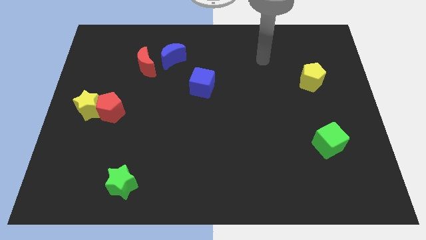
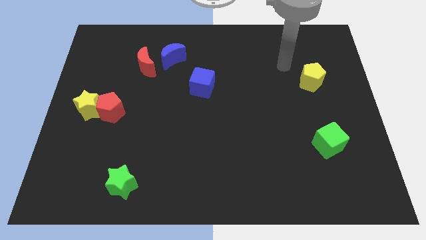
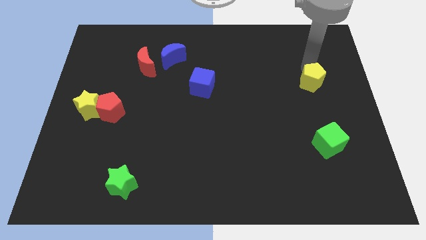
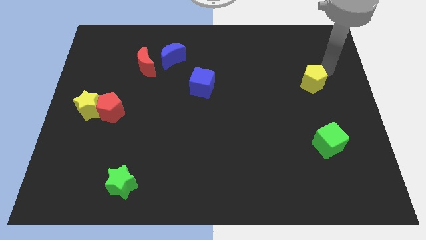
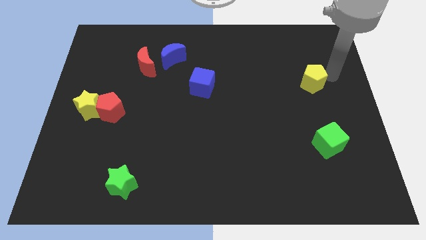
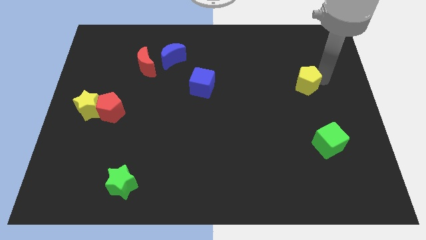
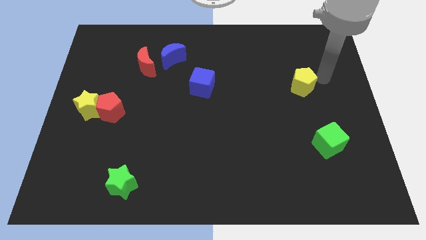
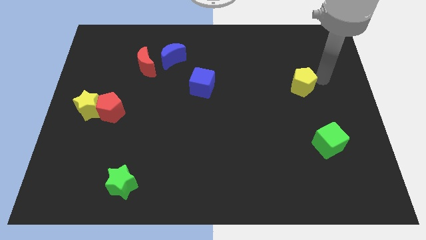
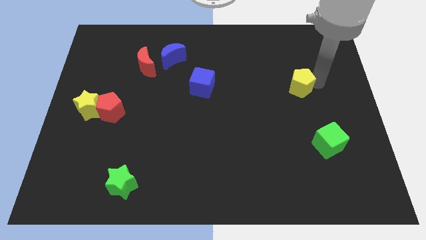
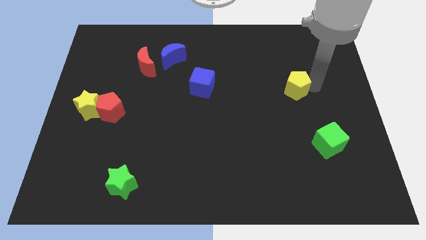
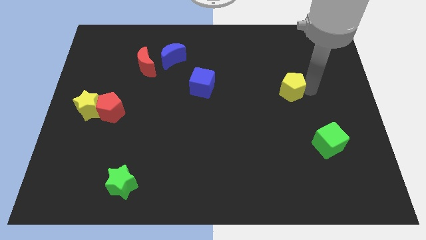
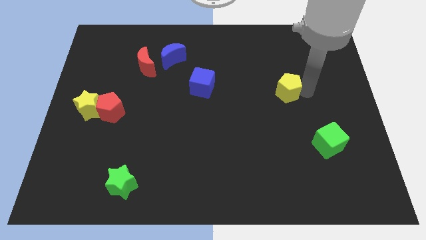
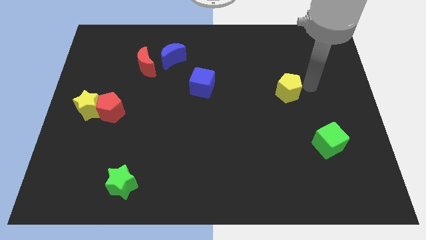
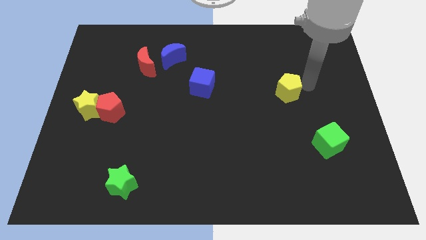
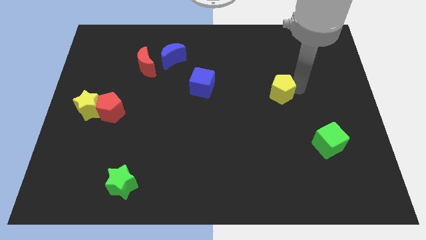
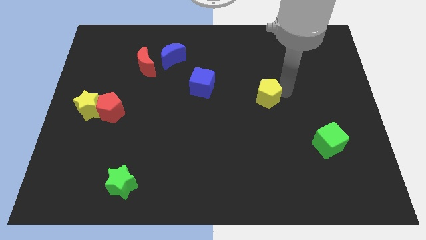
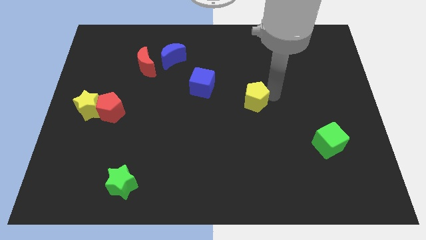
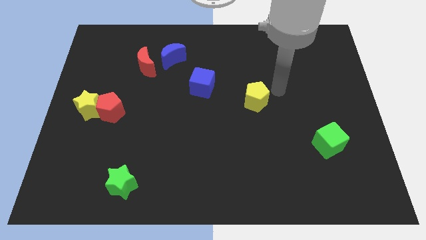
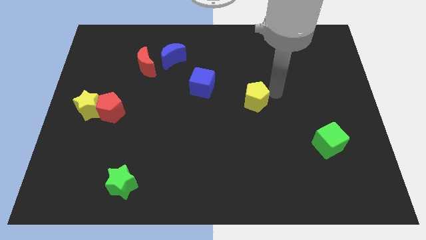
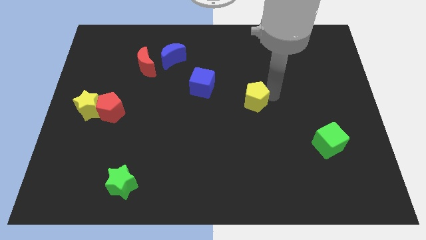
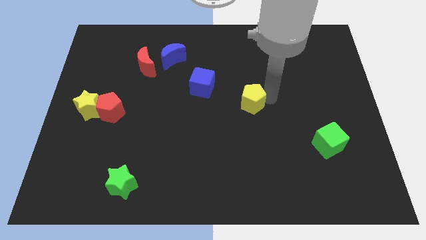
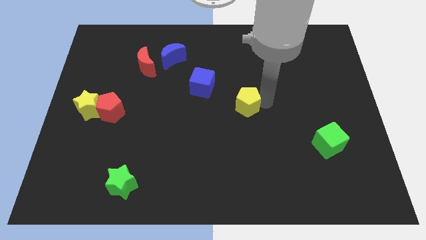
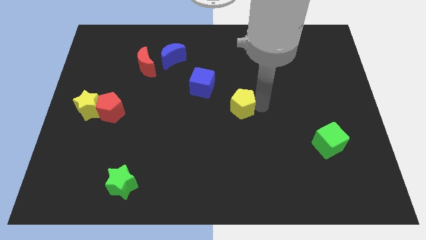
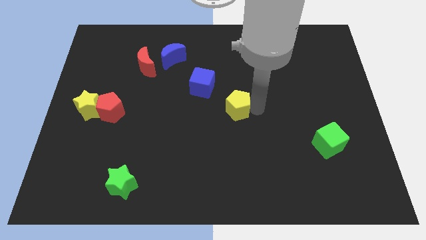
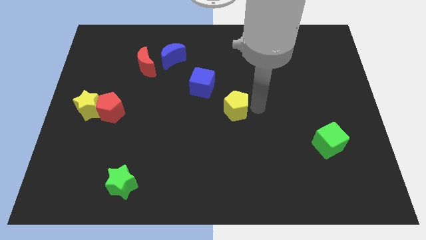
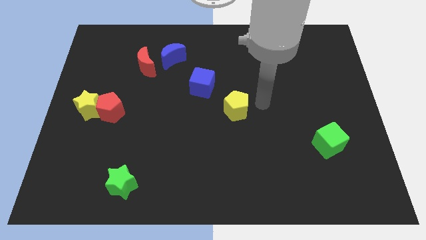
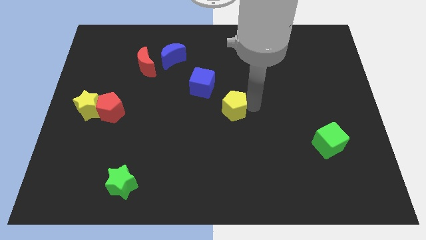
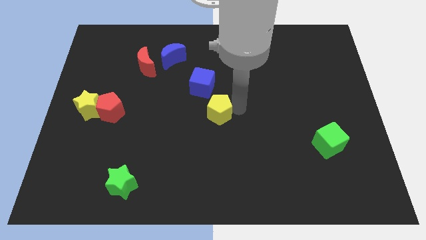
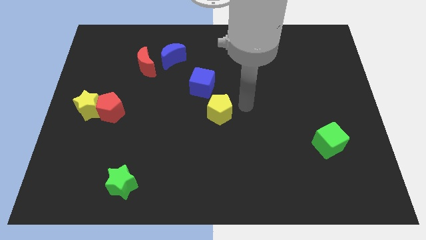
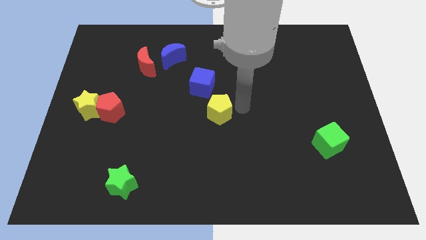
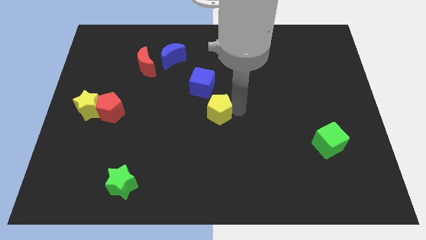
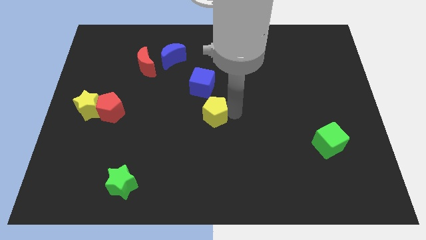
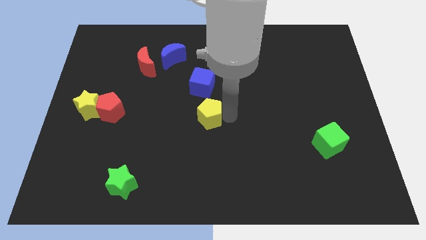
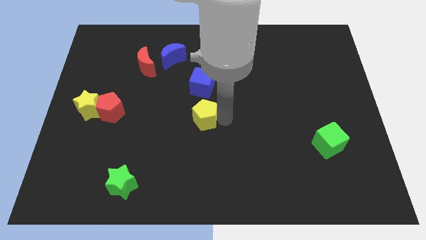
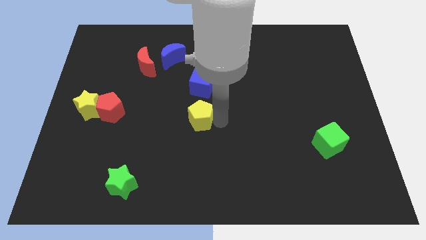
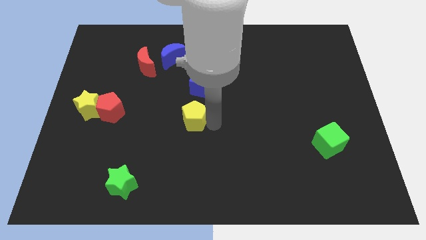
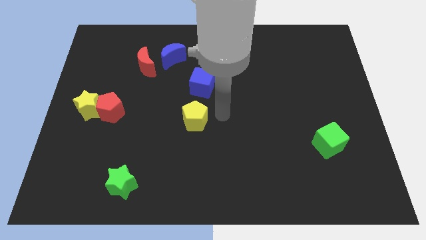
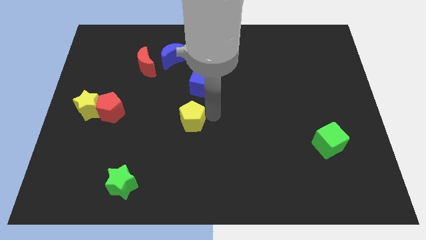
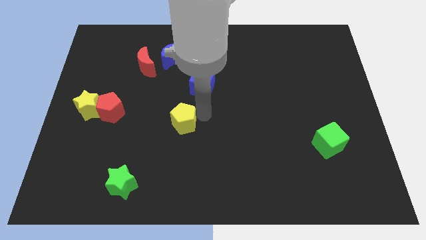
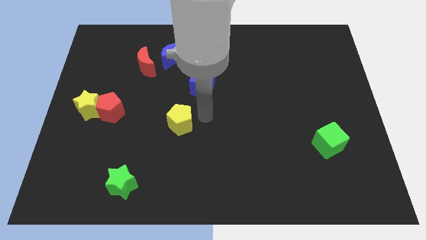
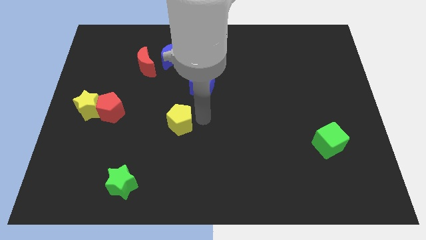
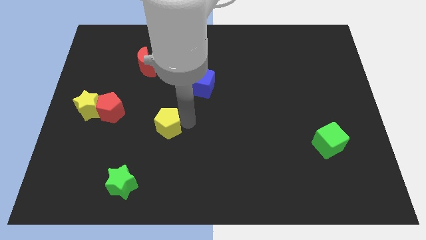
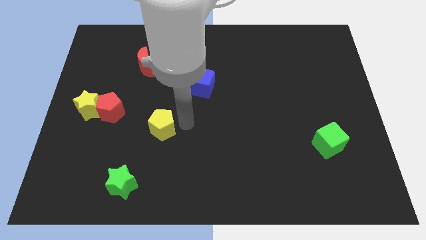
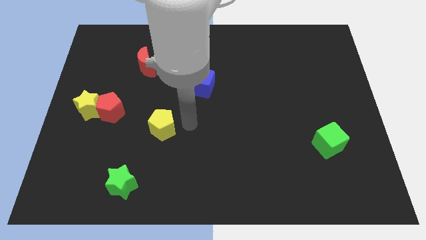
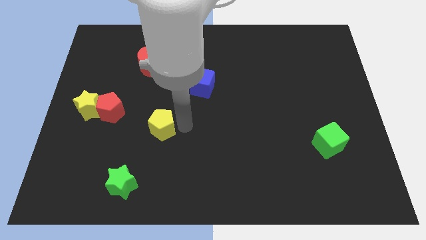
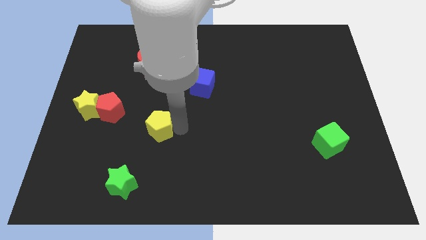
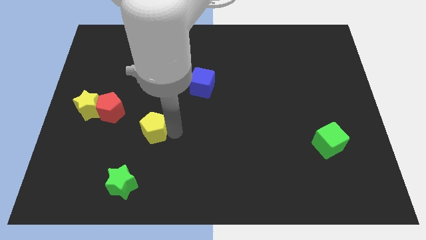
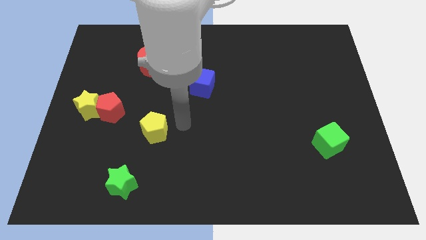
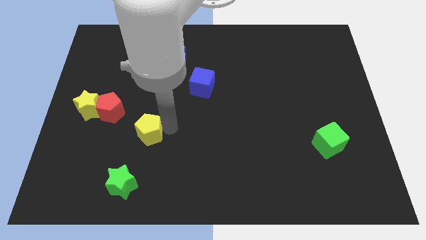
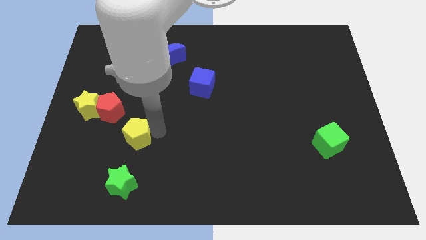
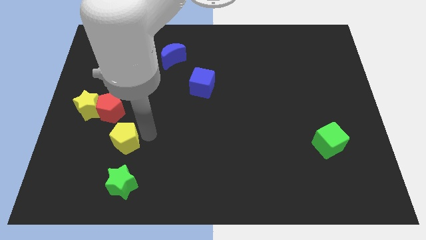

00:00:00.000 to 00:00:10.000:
put the yellow pentagon below the red pentagon

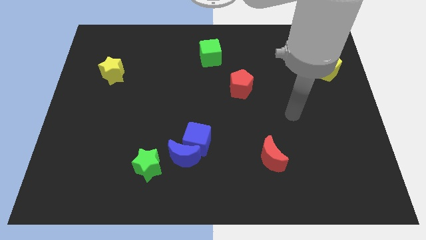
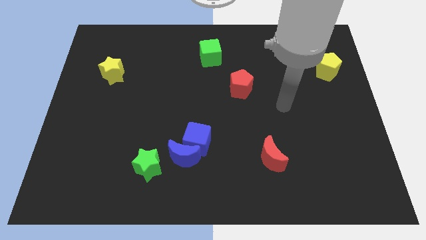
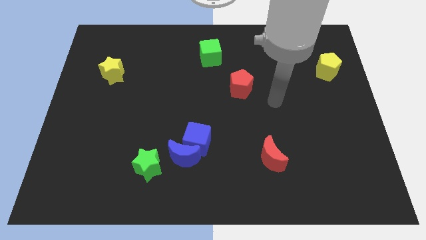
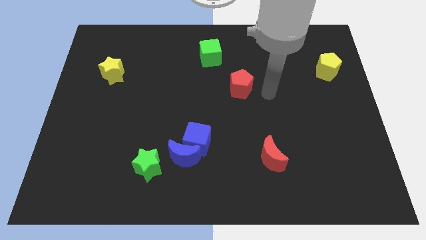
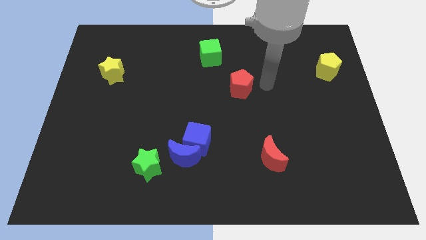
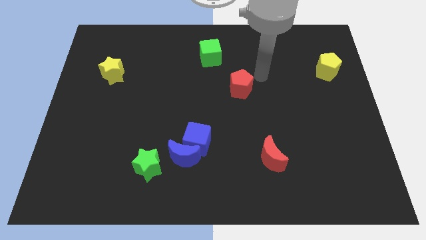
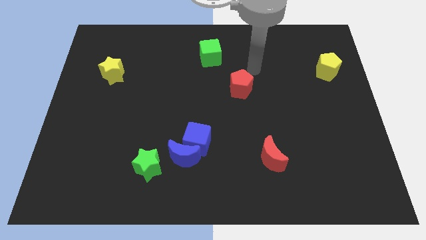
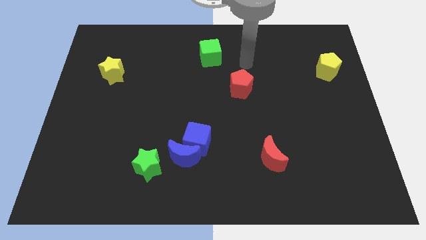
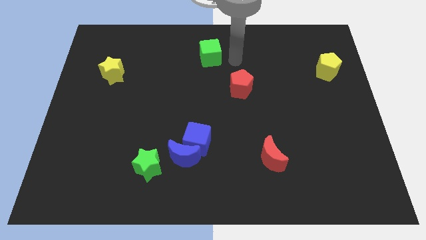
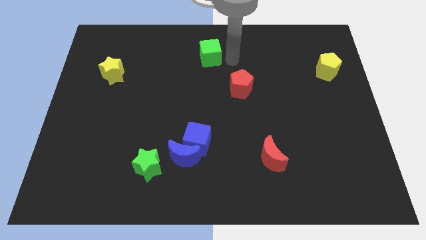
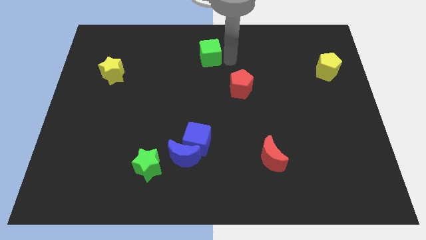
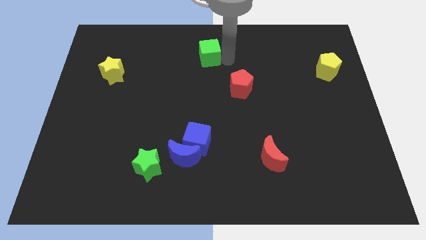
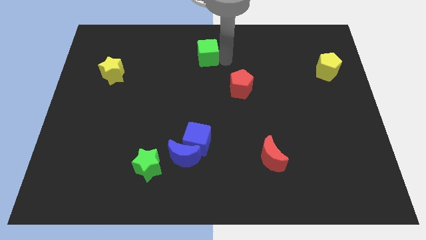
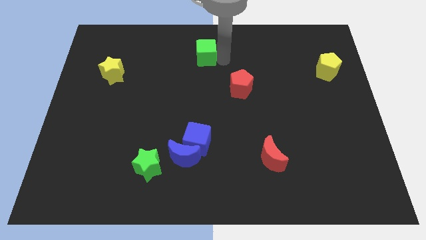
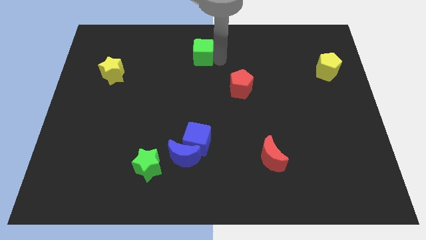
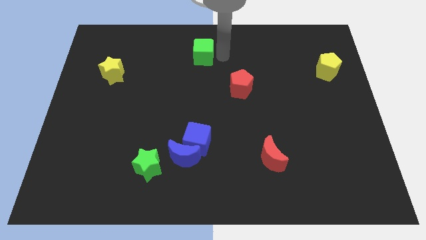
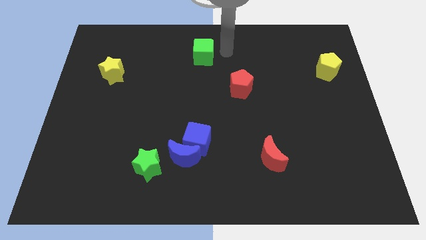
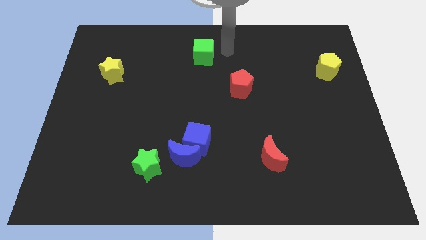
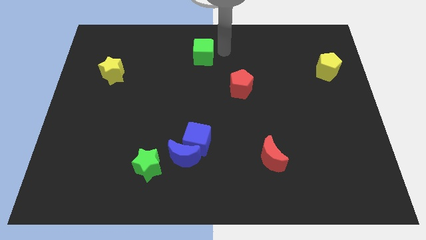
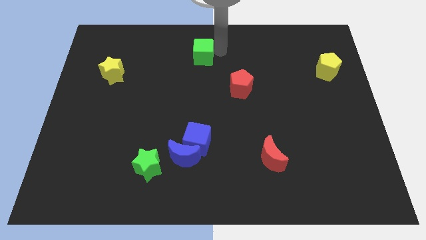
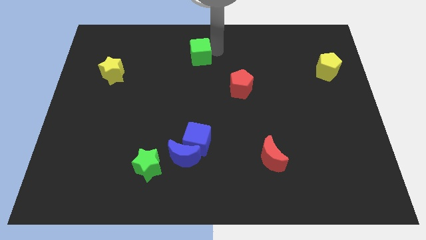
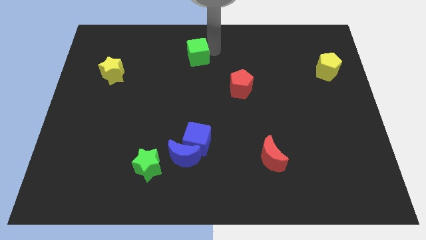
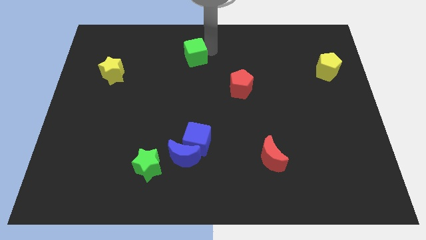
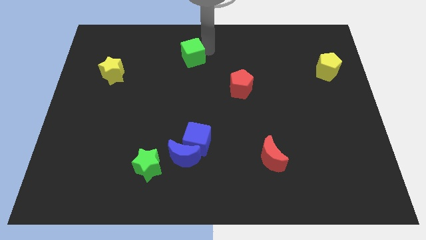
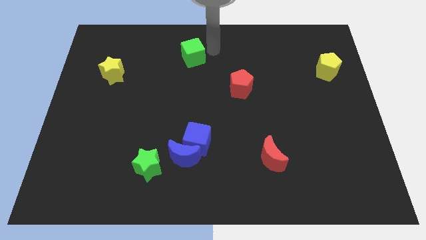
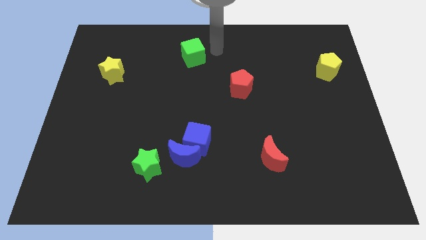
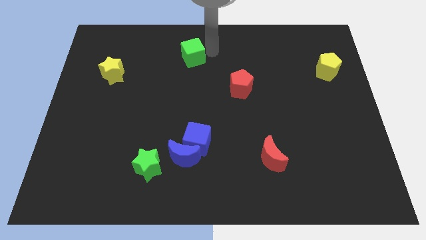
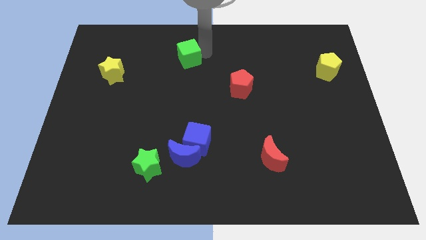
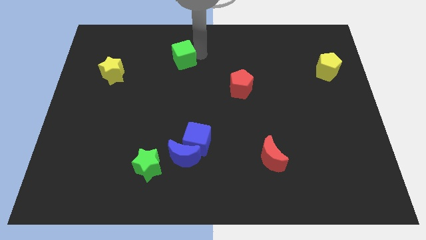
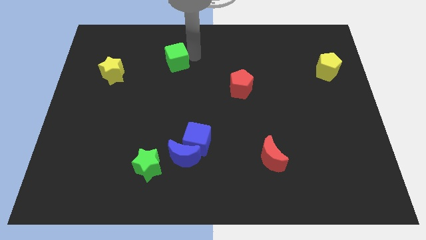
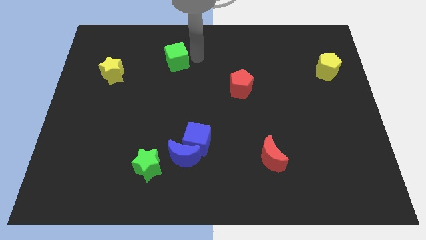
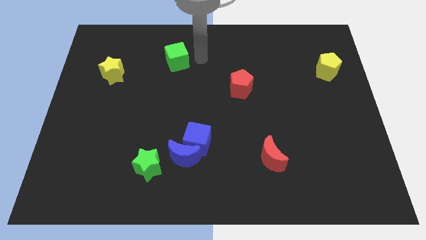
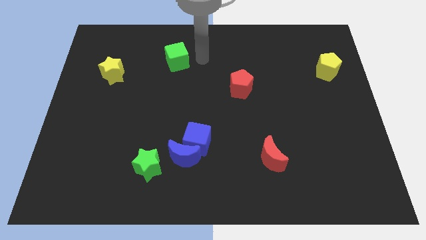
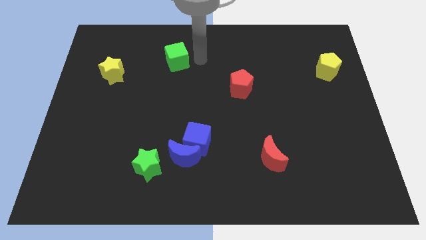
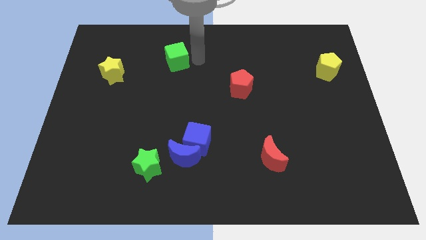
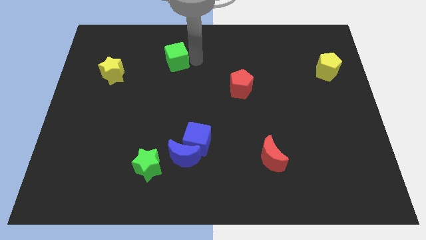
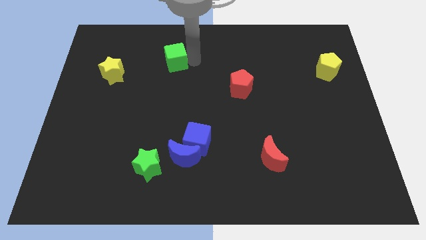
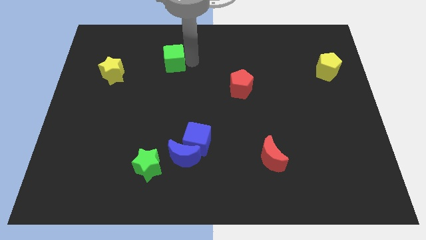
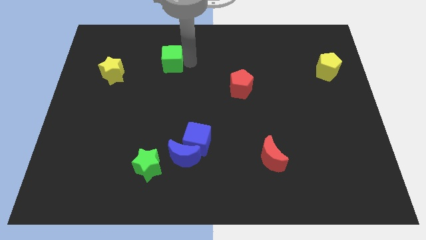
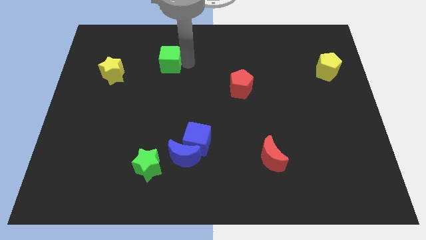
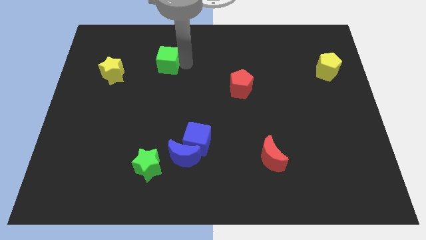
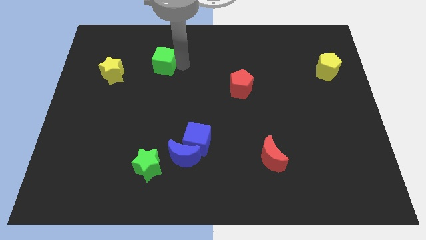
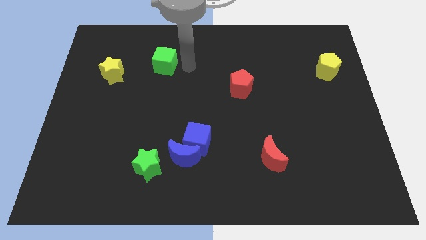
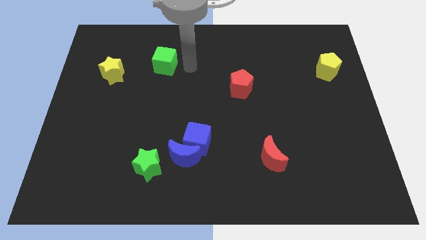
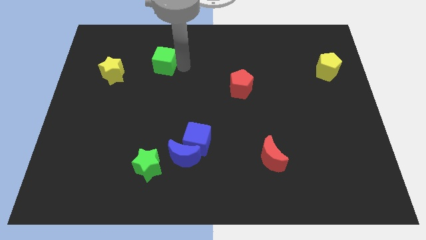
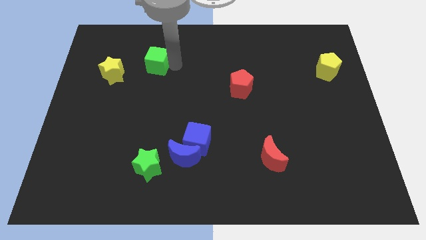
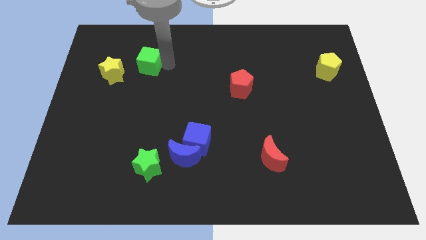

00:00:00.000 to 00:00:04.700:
slide the green cube to the top right side of the yellow star
